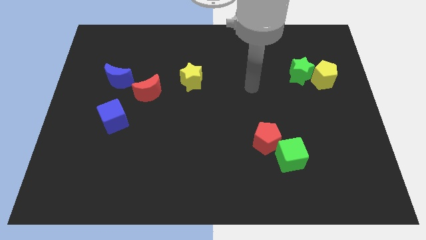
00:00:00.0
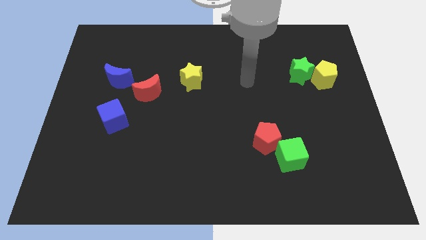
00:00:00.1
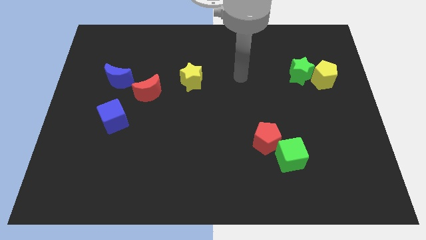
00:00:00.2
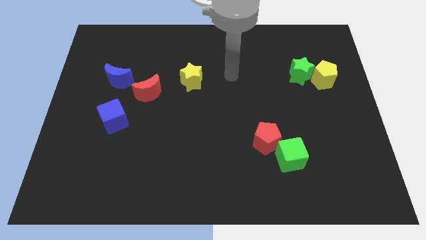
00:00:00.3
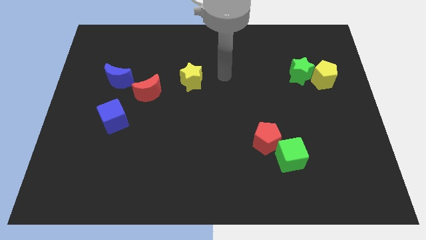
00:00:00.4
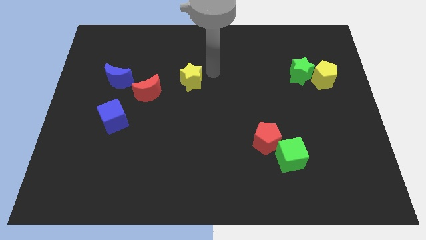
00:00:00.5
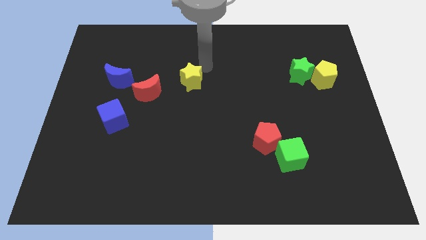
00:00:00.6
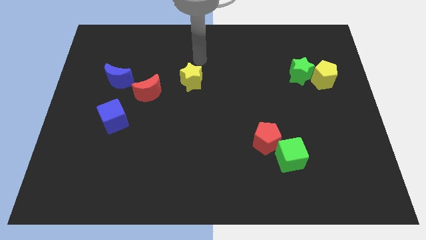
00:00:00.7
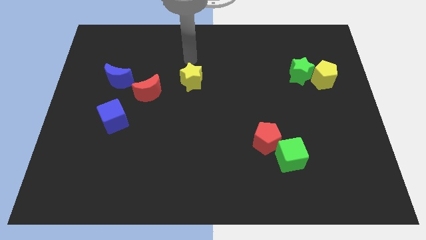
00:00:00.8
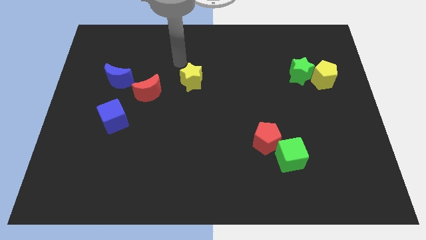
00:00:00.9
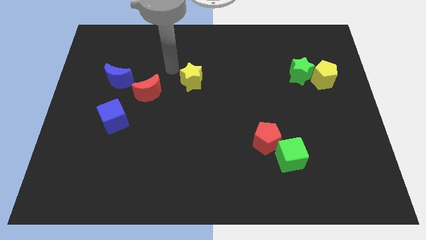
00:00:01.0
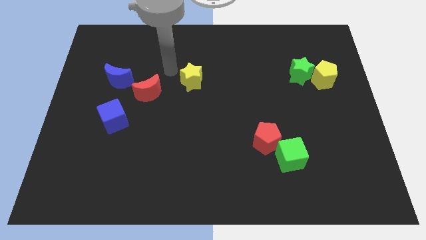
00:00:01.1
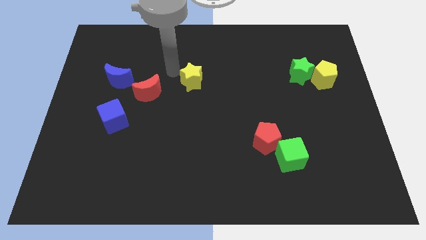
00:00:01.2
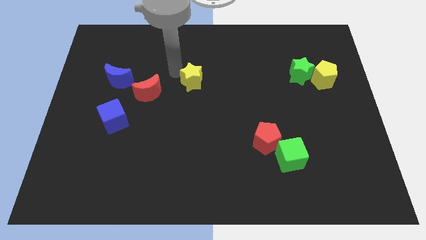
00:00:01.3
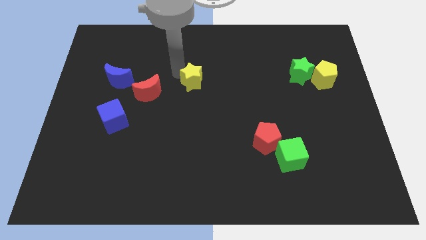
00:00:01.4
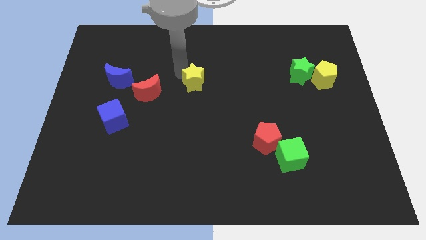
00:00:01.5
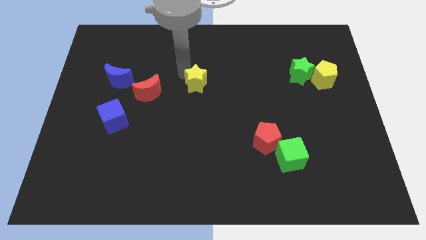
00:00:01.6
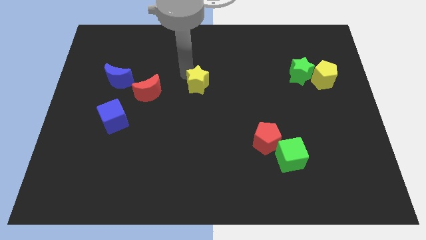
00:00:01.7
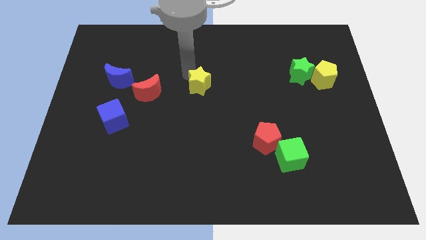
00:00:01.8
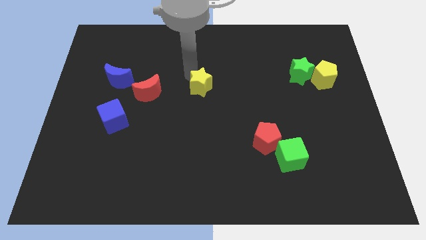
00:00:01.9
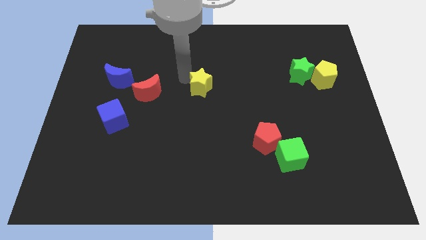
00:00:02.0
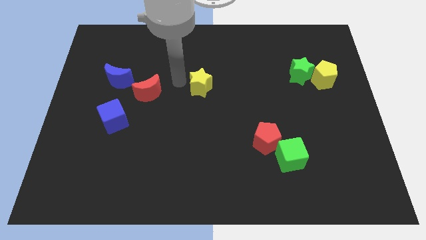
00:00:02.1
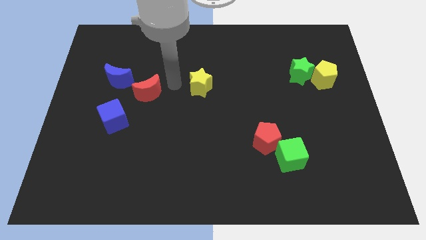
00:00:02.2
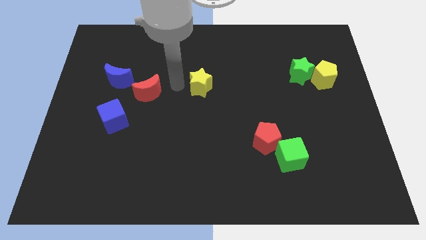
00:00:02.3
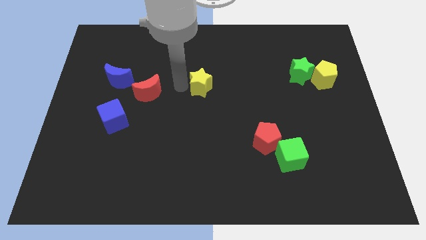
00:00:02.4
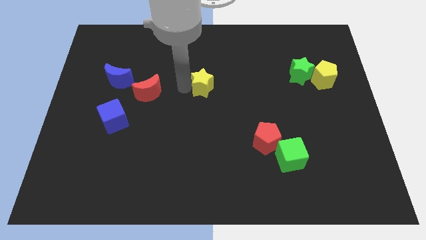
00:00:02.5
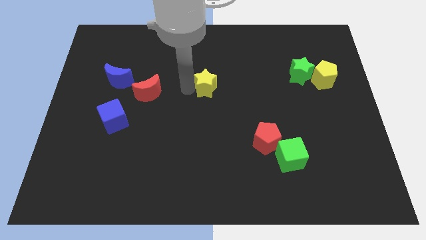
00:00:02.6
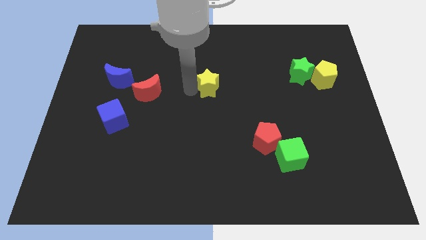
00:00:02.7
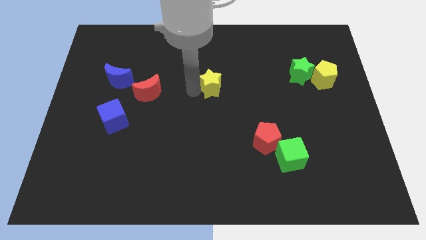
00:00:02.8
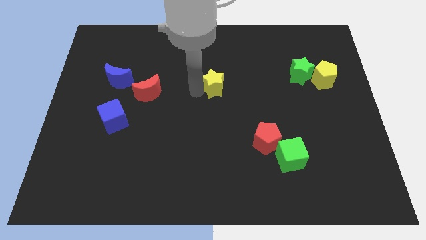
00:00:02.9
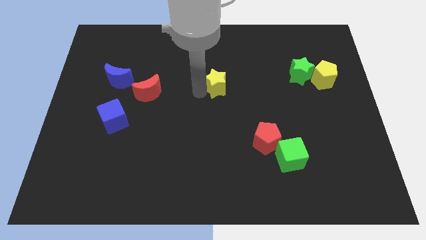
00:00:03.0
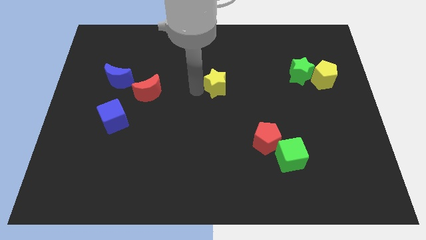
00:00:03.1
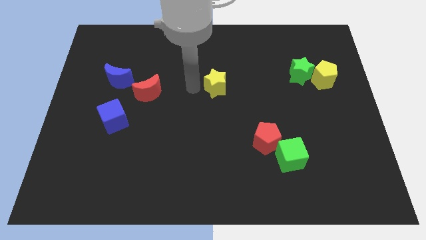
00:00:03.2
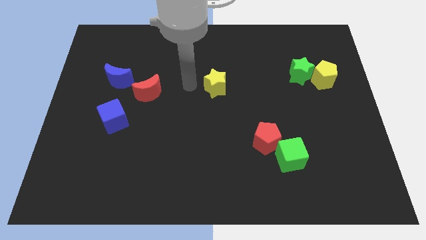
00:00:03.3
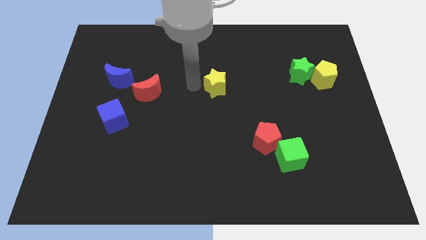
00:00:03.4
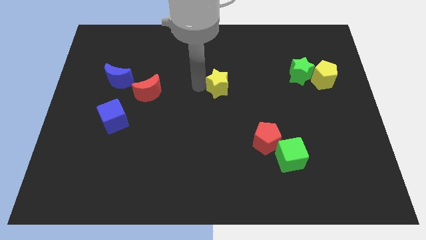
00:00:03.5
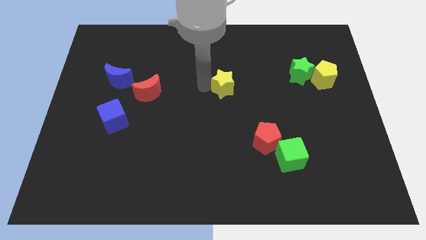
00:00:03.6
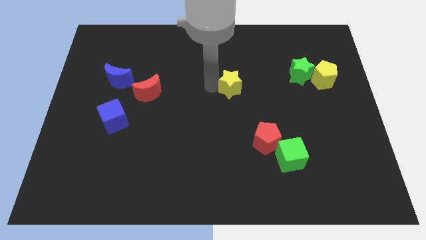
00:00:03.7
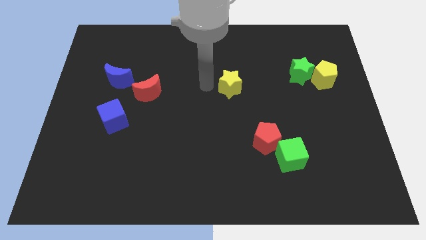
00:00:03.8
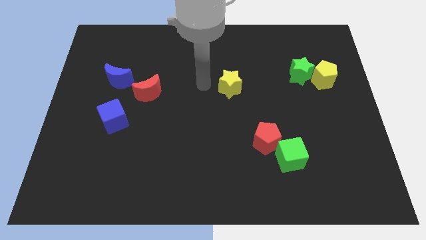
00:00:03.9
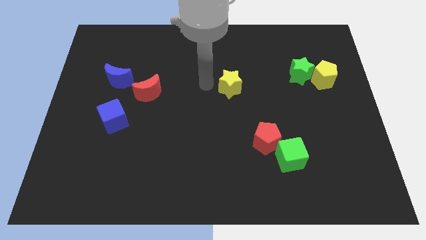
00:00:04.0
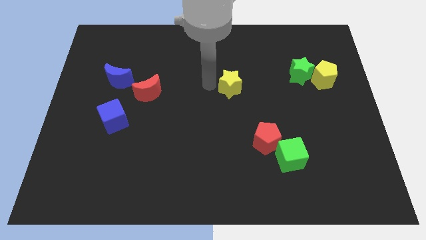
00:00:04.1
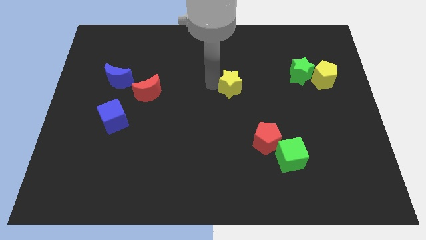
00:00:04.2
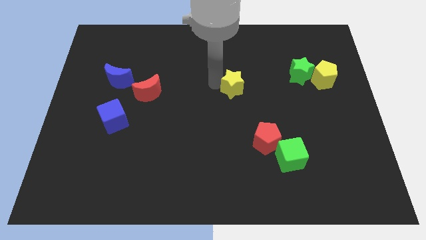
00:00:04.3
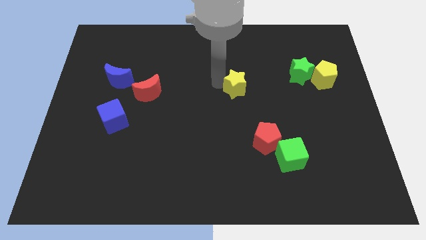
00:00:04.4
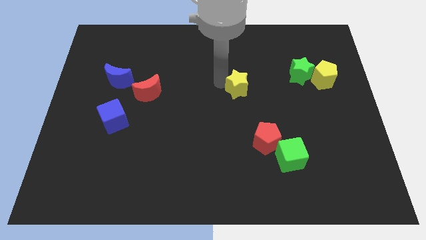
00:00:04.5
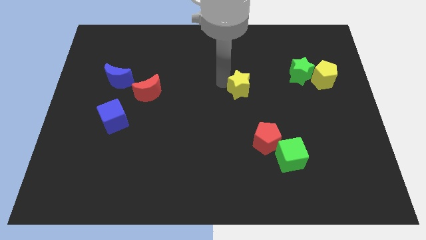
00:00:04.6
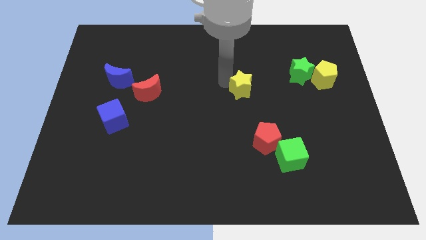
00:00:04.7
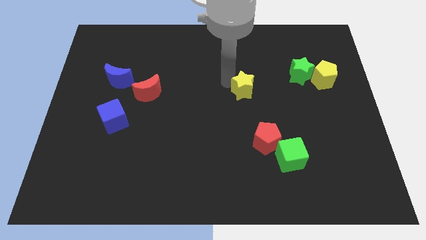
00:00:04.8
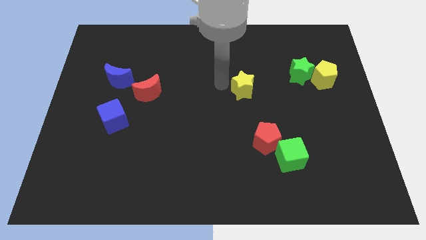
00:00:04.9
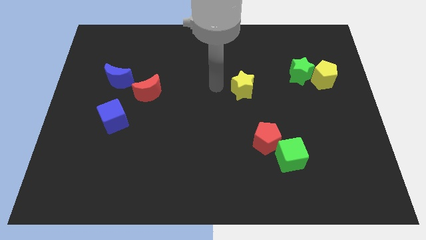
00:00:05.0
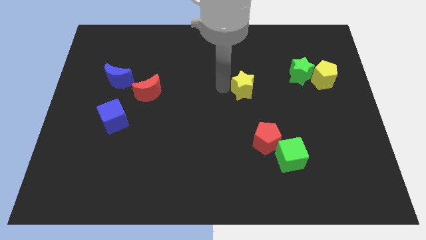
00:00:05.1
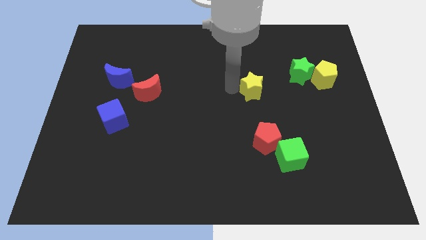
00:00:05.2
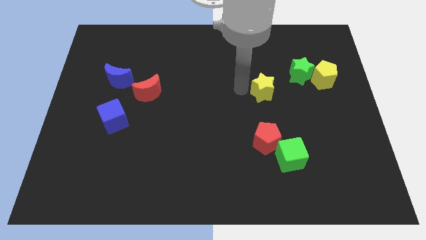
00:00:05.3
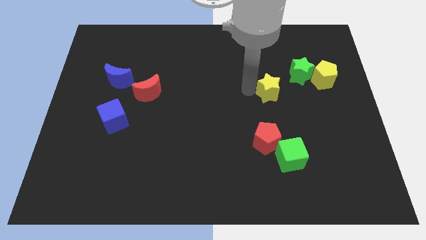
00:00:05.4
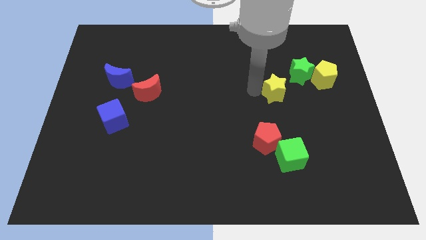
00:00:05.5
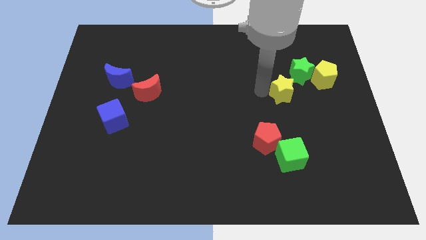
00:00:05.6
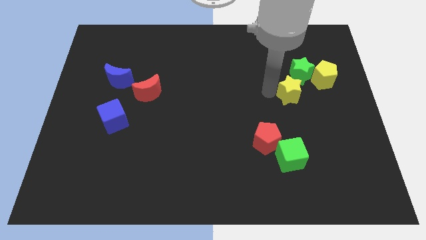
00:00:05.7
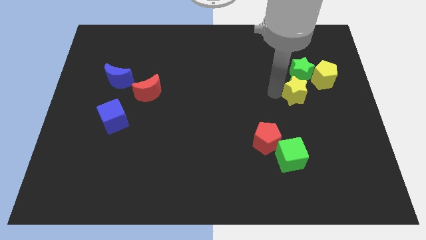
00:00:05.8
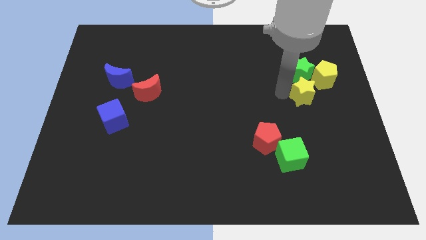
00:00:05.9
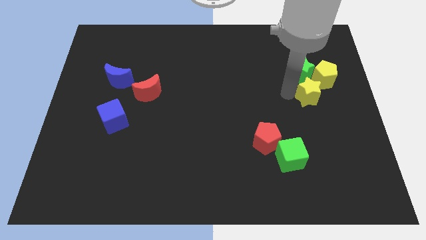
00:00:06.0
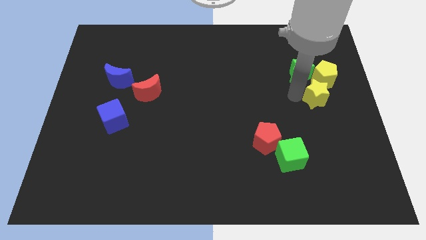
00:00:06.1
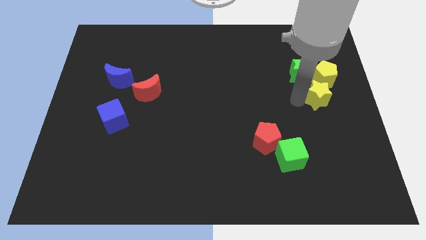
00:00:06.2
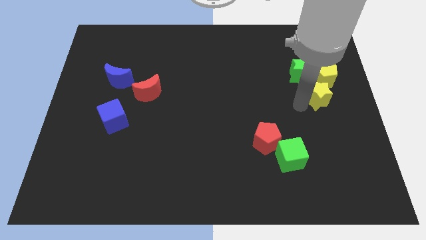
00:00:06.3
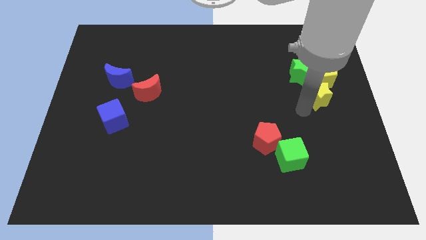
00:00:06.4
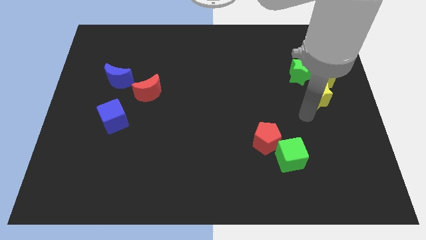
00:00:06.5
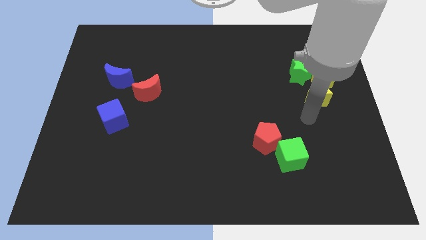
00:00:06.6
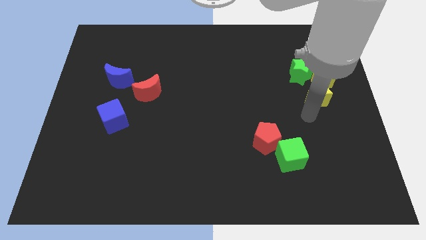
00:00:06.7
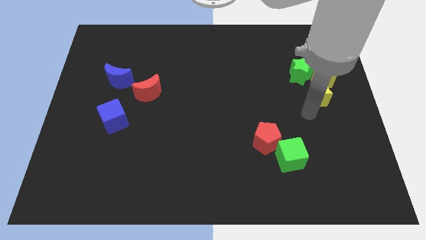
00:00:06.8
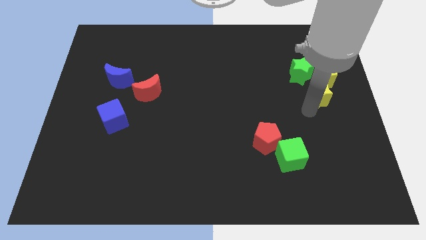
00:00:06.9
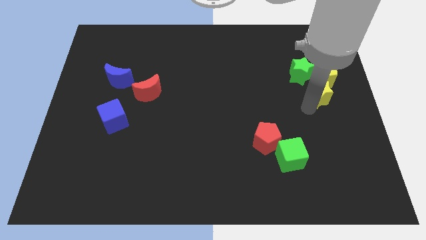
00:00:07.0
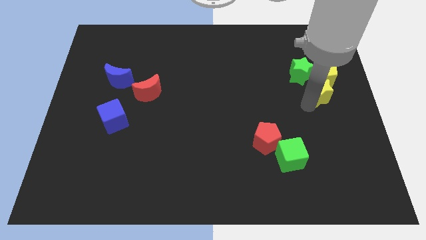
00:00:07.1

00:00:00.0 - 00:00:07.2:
push the yellow star to the yellow pentagon
